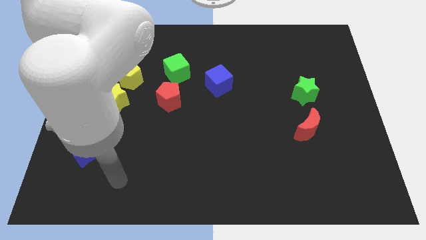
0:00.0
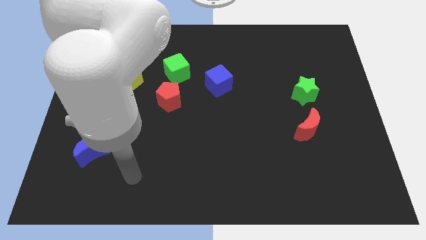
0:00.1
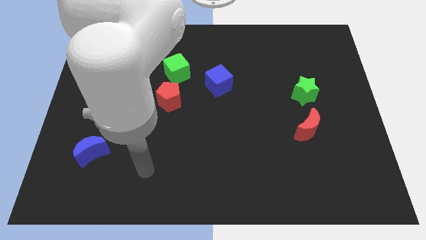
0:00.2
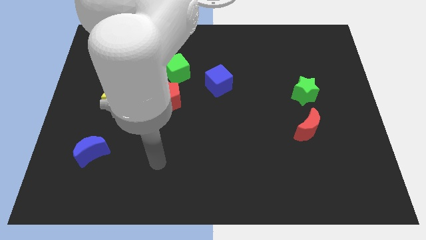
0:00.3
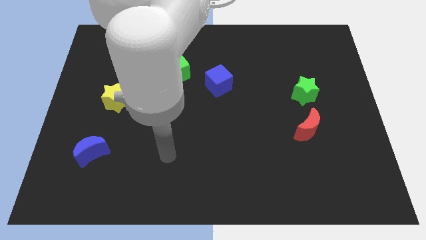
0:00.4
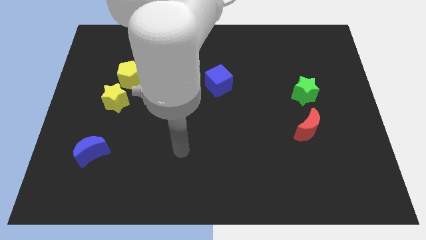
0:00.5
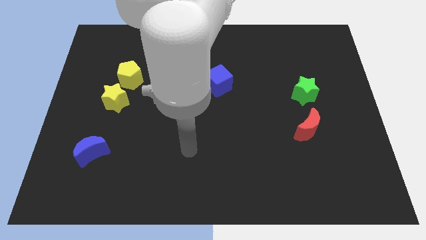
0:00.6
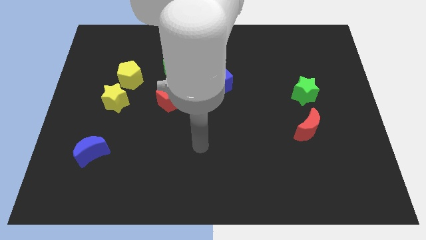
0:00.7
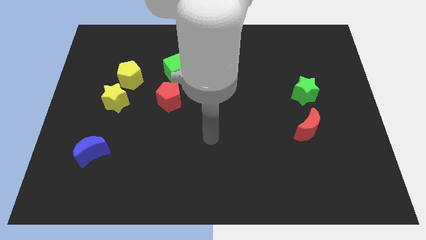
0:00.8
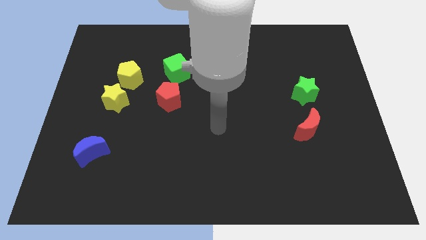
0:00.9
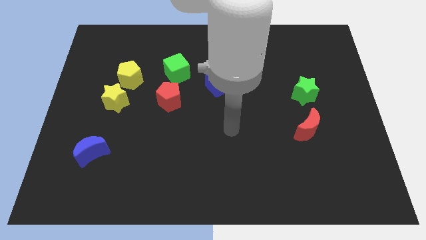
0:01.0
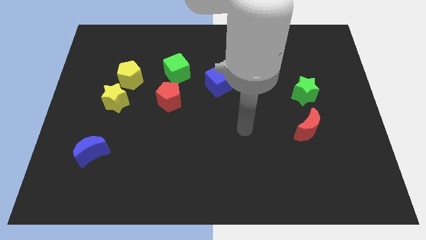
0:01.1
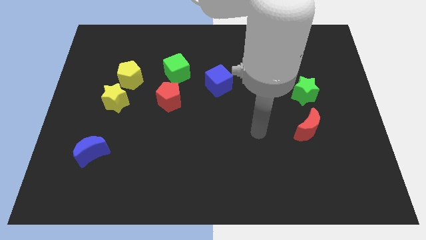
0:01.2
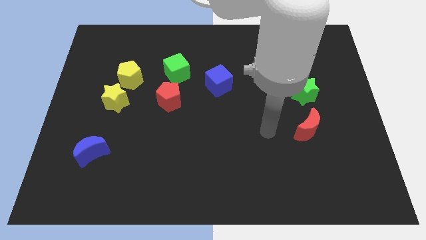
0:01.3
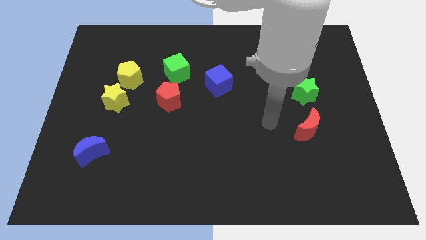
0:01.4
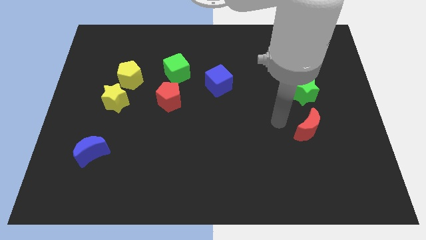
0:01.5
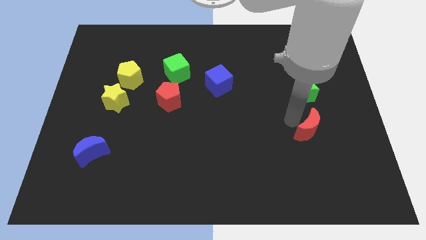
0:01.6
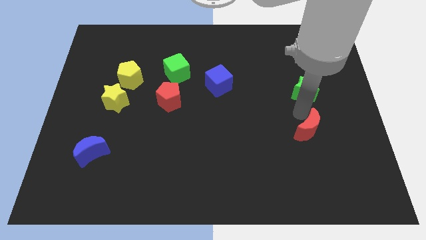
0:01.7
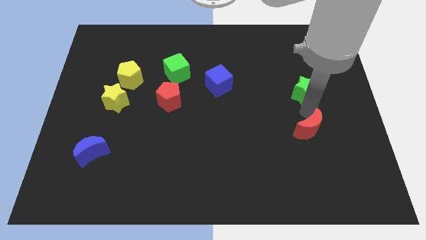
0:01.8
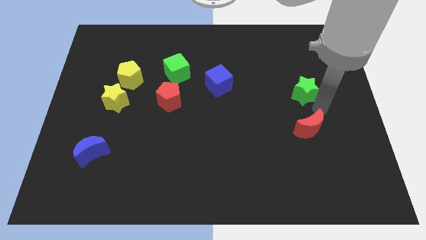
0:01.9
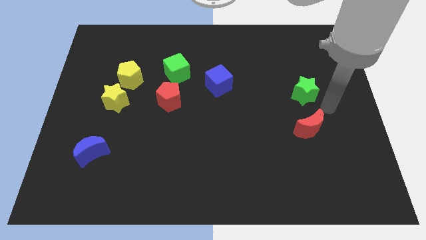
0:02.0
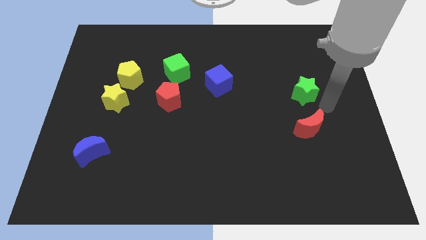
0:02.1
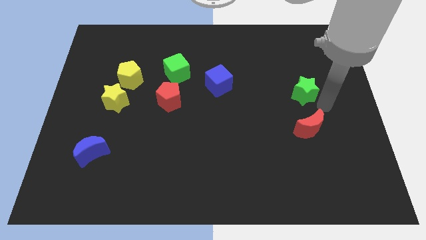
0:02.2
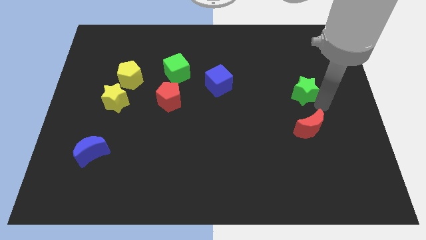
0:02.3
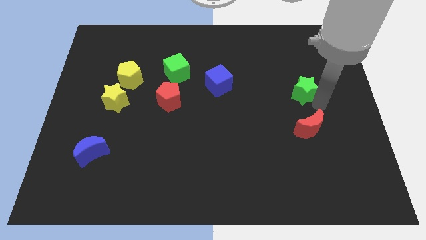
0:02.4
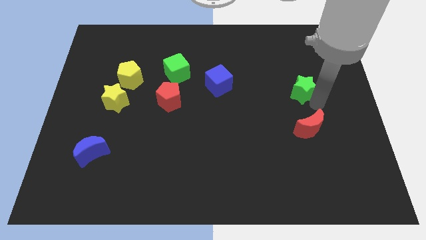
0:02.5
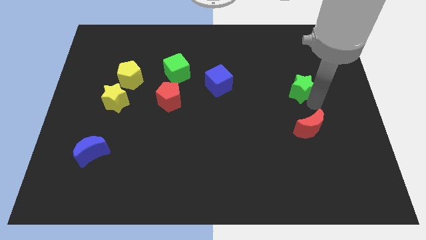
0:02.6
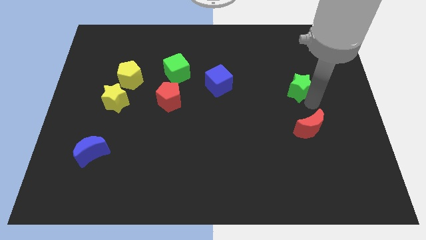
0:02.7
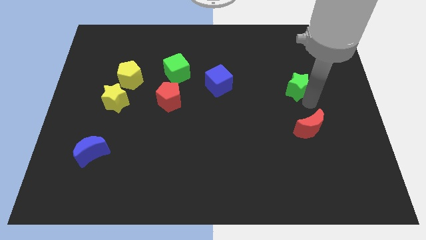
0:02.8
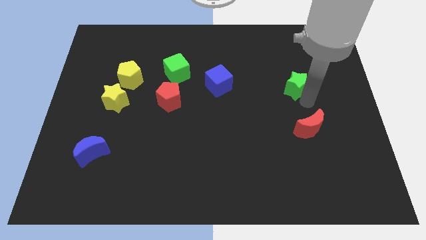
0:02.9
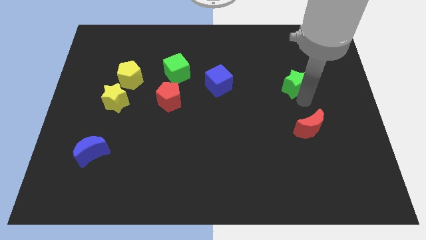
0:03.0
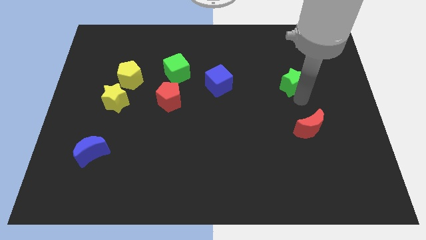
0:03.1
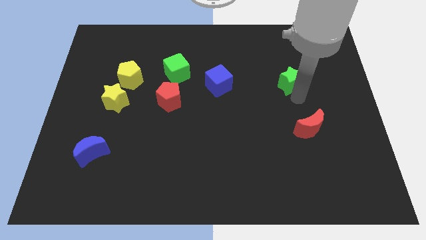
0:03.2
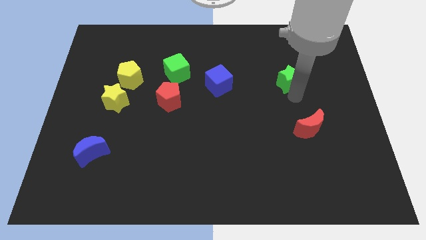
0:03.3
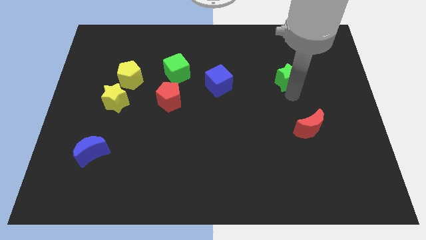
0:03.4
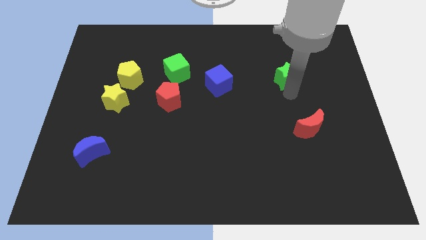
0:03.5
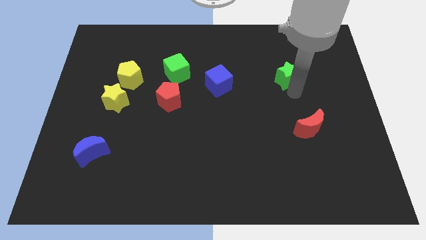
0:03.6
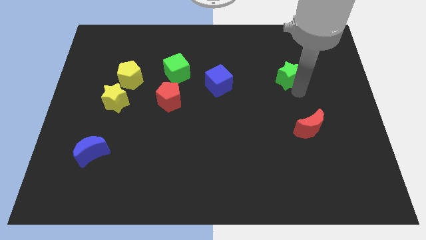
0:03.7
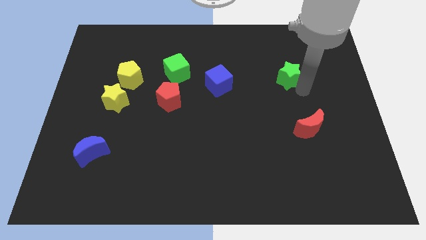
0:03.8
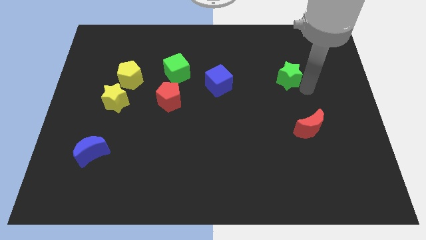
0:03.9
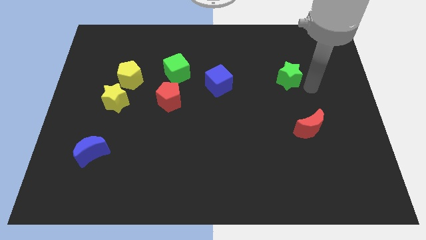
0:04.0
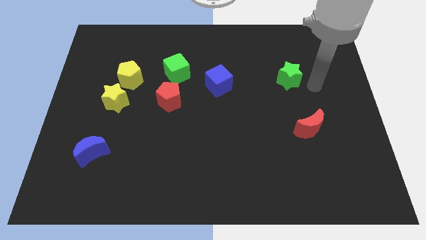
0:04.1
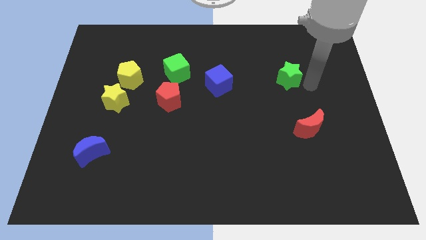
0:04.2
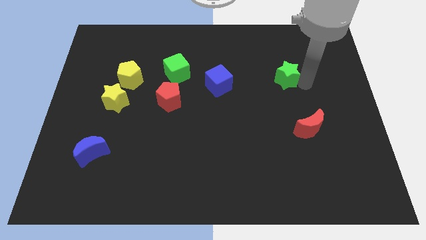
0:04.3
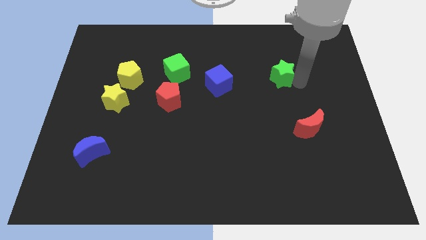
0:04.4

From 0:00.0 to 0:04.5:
push the green star diagonally up and left slightly

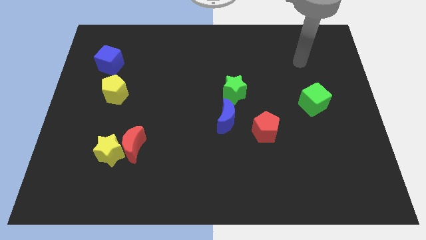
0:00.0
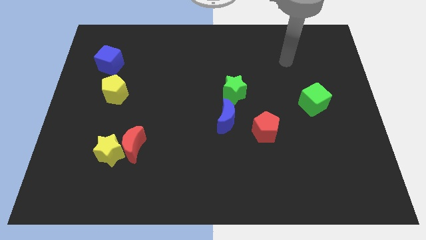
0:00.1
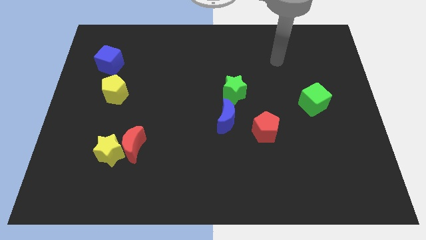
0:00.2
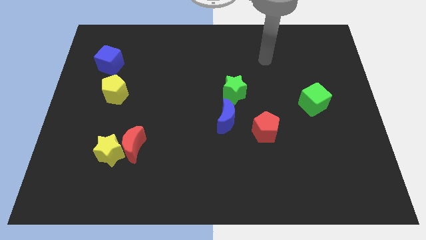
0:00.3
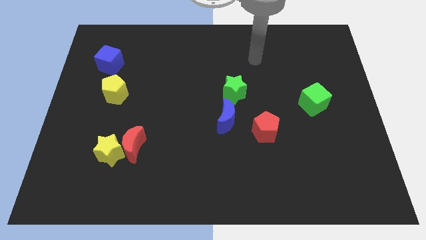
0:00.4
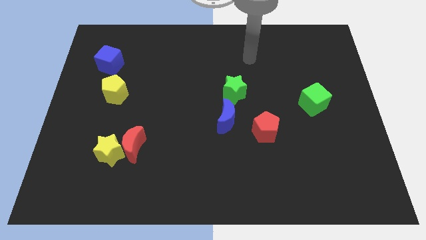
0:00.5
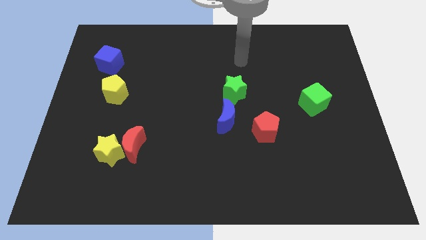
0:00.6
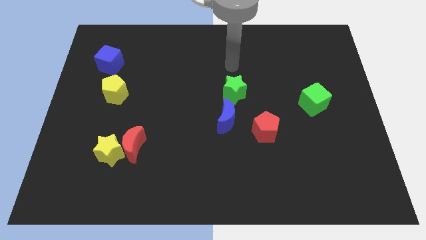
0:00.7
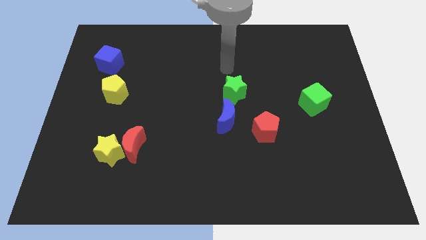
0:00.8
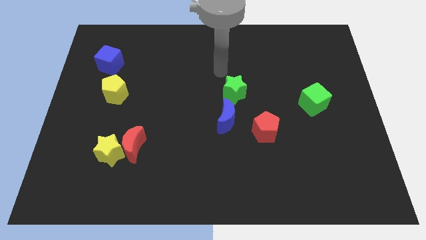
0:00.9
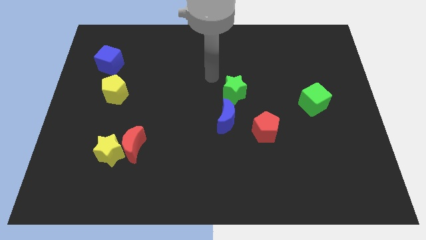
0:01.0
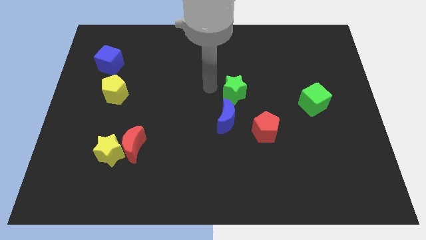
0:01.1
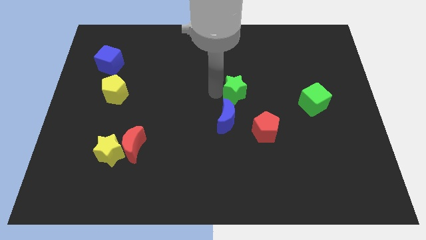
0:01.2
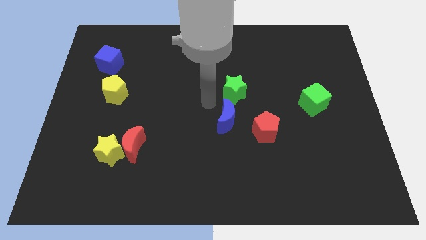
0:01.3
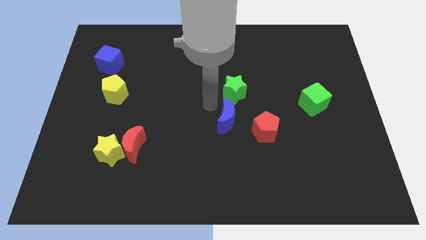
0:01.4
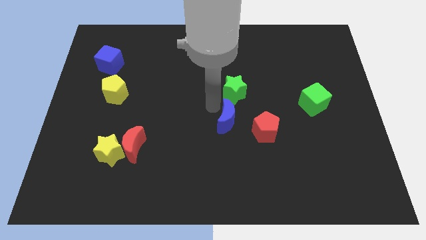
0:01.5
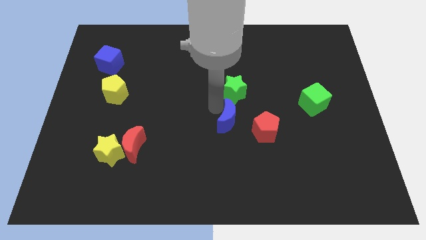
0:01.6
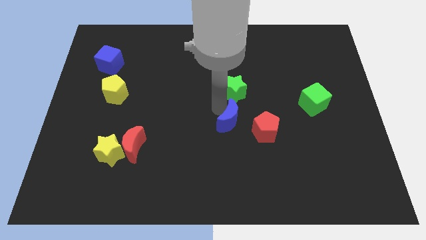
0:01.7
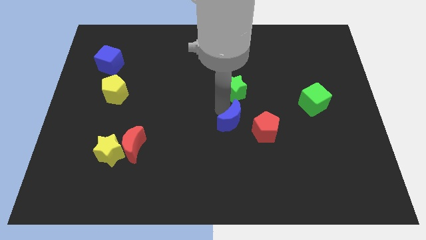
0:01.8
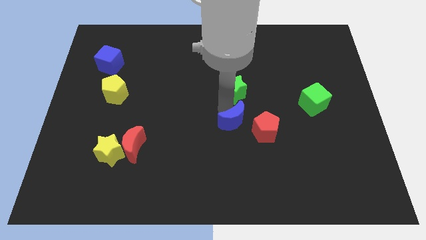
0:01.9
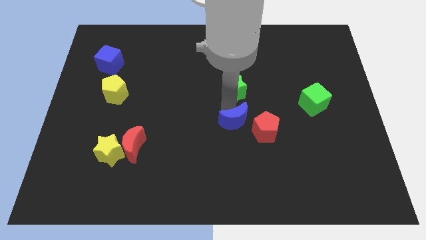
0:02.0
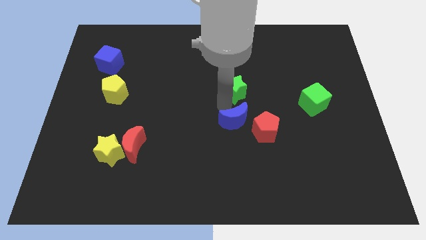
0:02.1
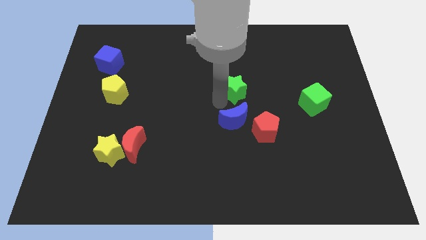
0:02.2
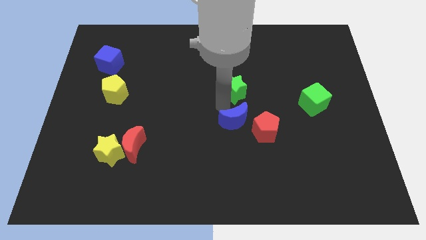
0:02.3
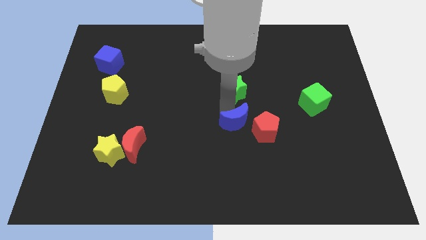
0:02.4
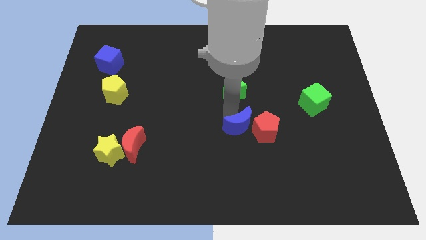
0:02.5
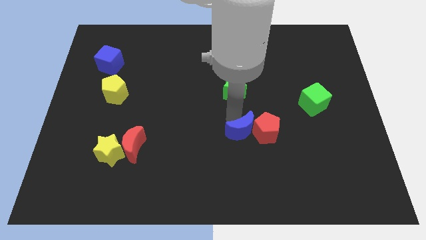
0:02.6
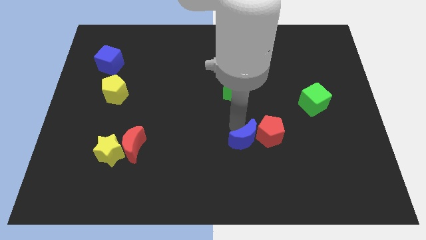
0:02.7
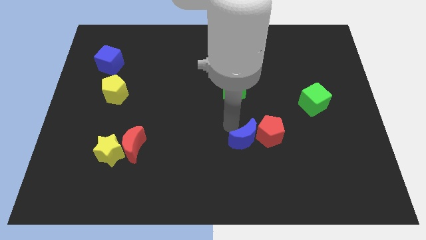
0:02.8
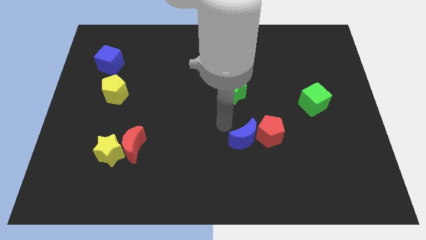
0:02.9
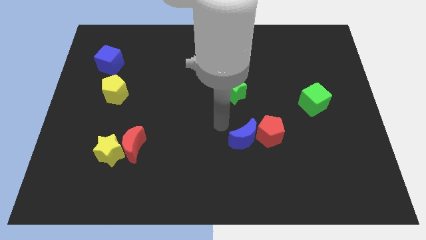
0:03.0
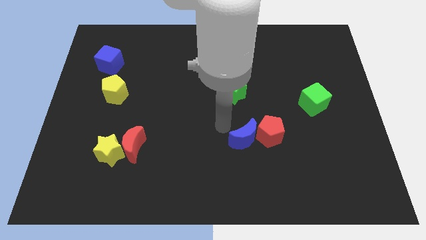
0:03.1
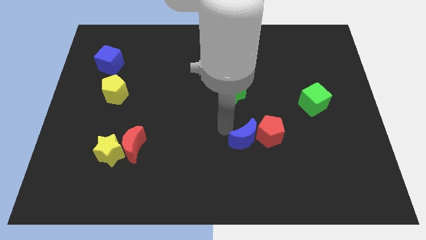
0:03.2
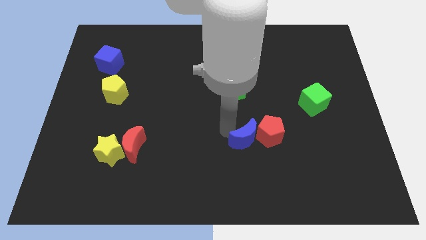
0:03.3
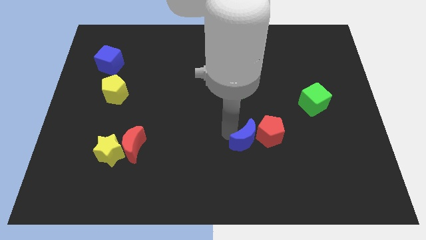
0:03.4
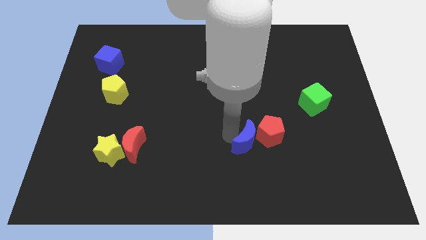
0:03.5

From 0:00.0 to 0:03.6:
move the blue moon a bit downwards and right diagonally
